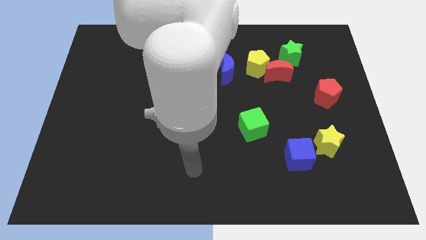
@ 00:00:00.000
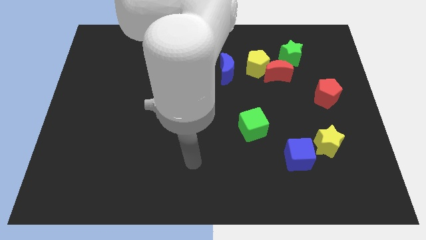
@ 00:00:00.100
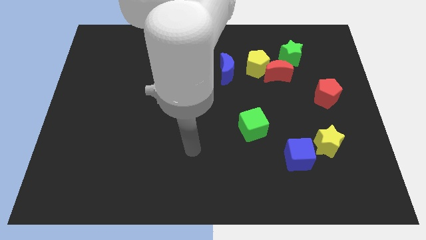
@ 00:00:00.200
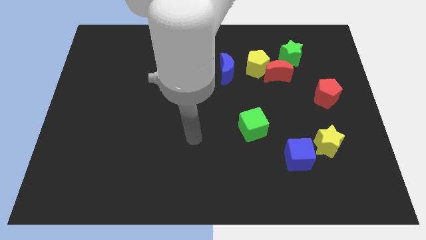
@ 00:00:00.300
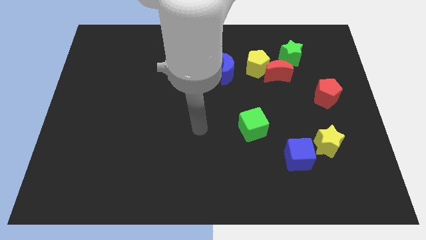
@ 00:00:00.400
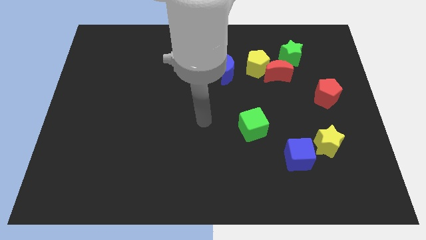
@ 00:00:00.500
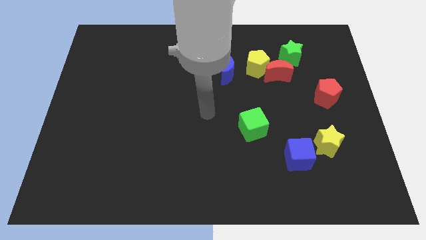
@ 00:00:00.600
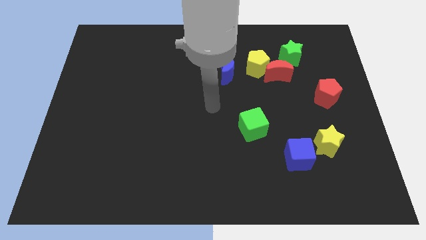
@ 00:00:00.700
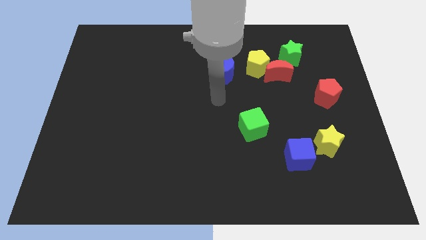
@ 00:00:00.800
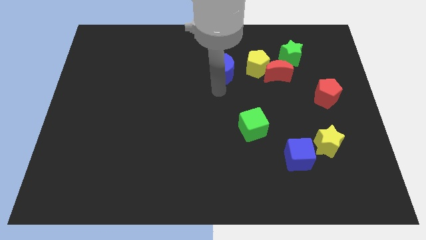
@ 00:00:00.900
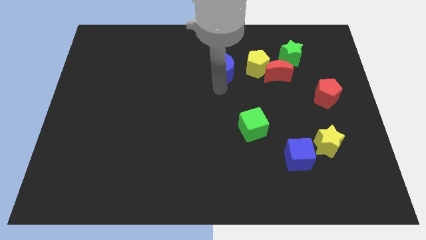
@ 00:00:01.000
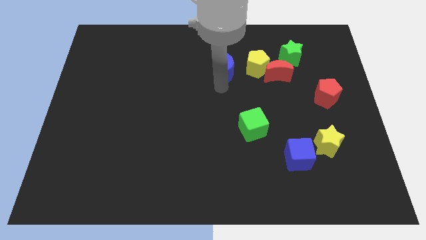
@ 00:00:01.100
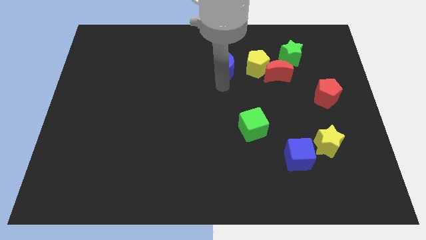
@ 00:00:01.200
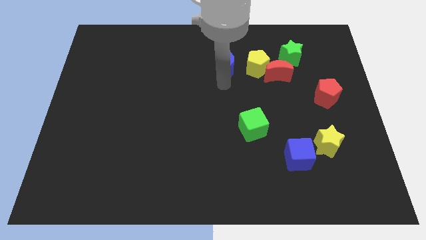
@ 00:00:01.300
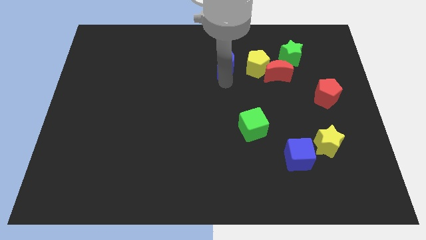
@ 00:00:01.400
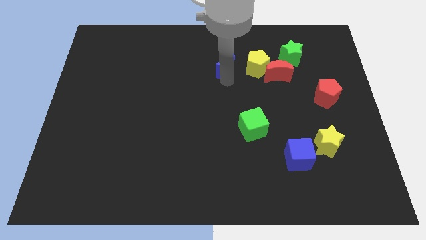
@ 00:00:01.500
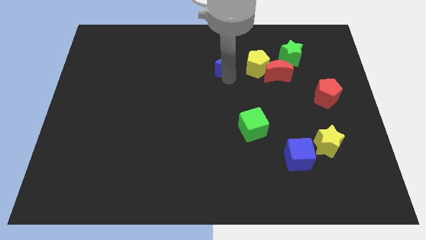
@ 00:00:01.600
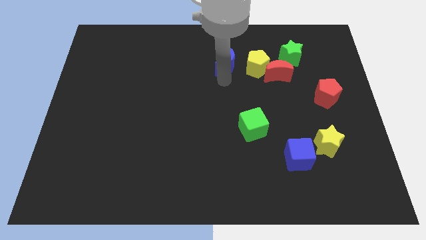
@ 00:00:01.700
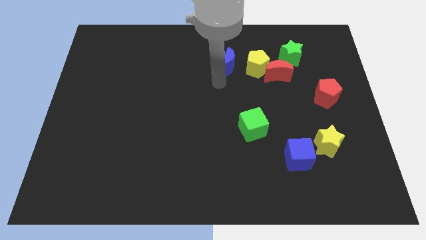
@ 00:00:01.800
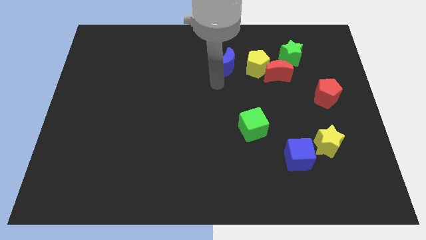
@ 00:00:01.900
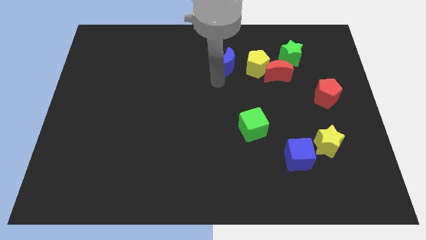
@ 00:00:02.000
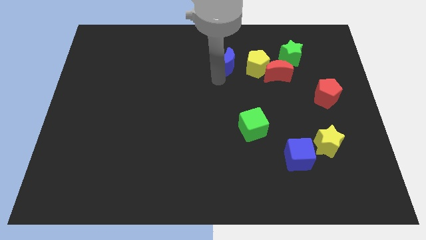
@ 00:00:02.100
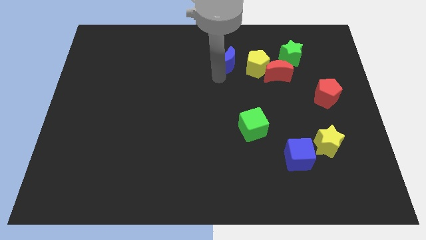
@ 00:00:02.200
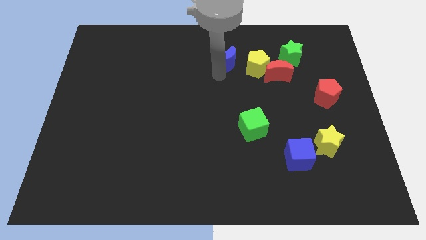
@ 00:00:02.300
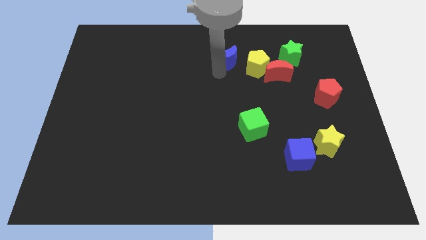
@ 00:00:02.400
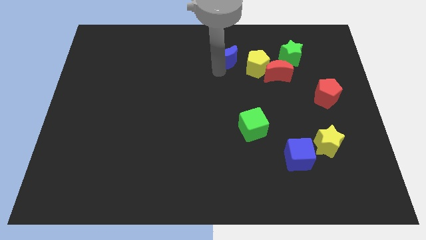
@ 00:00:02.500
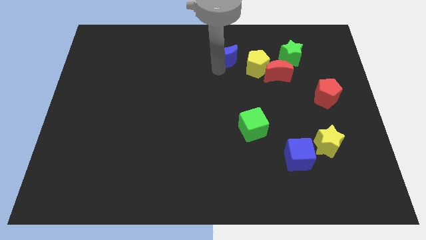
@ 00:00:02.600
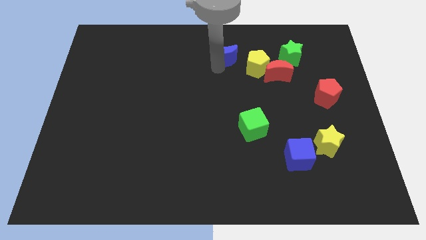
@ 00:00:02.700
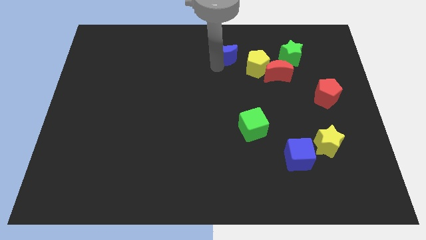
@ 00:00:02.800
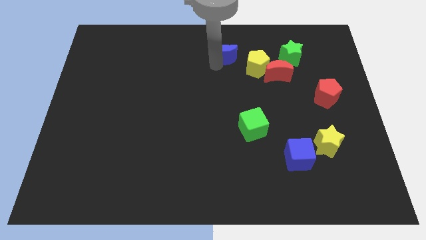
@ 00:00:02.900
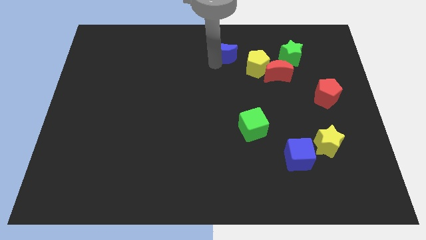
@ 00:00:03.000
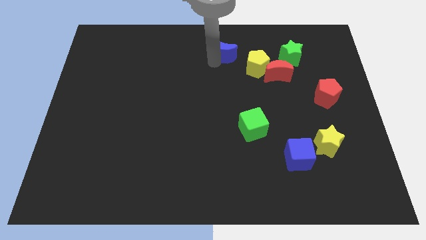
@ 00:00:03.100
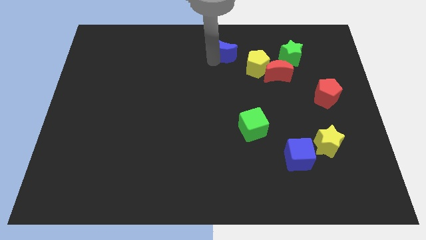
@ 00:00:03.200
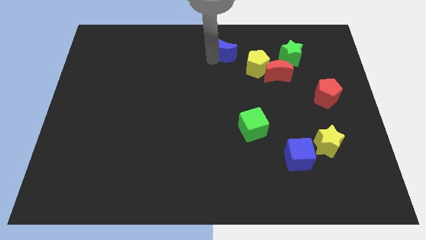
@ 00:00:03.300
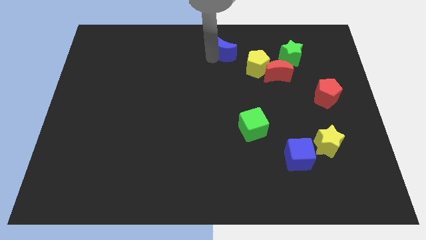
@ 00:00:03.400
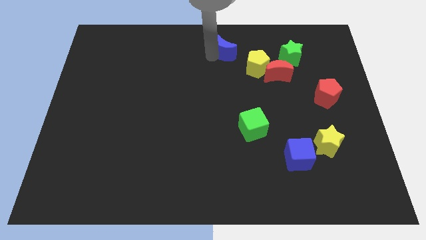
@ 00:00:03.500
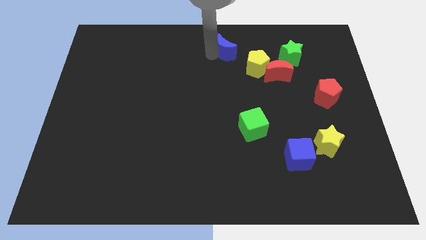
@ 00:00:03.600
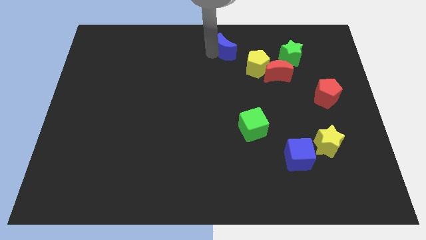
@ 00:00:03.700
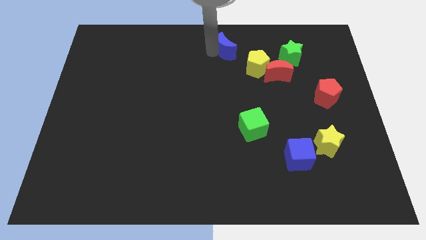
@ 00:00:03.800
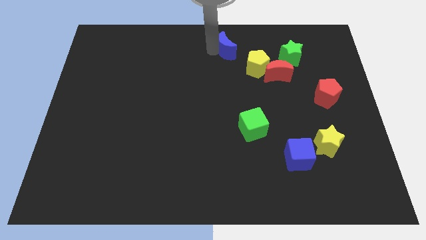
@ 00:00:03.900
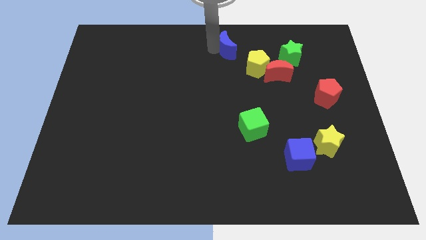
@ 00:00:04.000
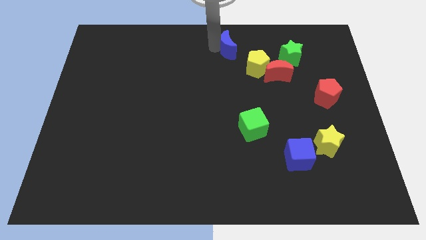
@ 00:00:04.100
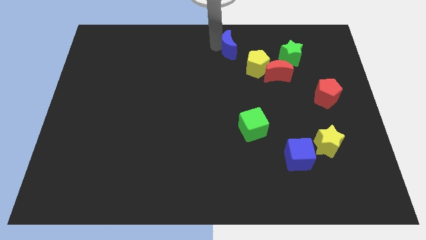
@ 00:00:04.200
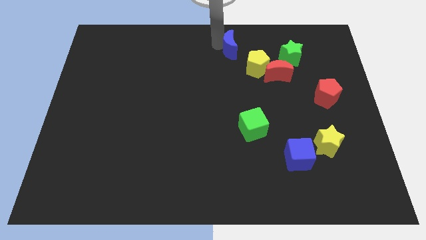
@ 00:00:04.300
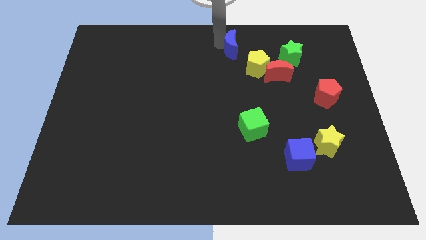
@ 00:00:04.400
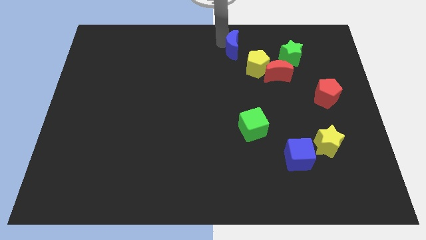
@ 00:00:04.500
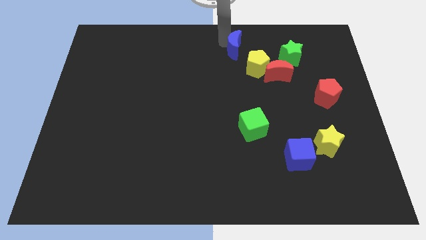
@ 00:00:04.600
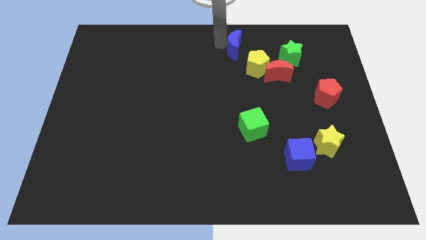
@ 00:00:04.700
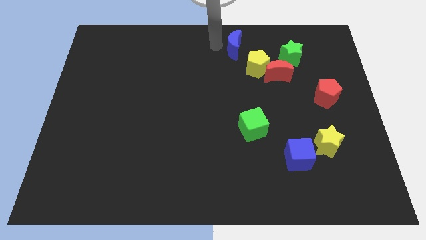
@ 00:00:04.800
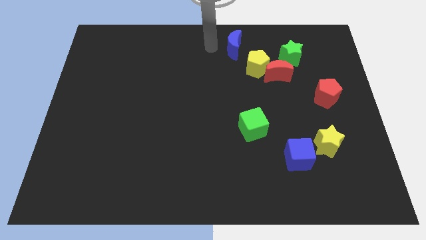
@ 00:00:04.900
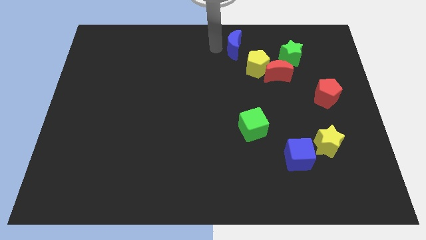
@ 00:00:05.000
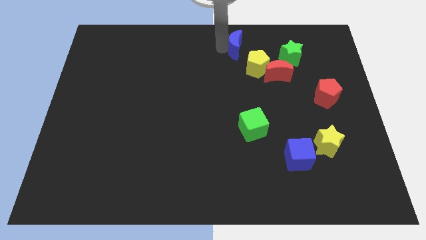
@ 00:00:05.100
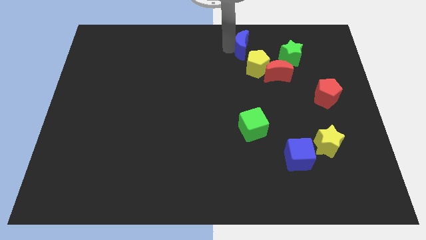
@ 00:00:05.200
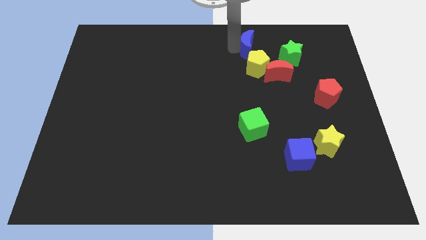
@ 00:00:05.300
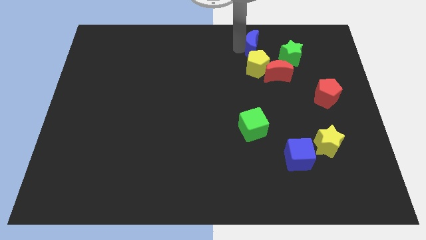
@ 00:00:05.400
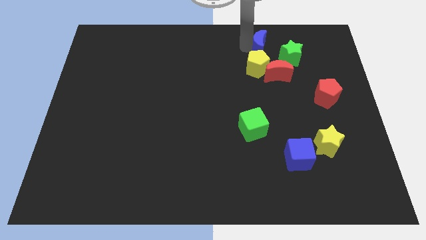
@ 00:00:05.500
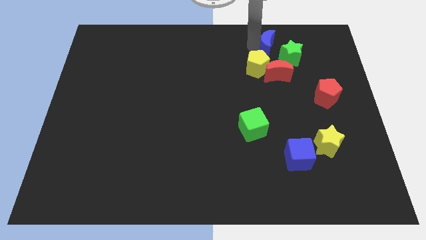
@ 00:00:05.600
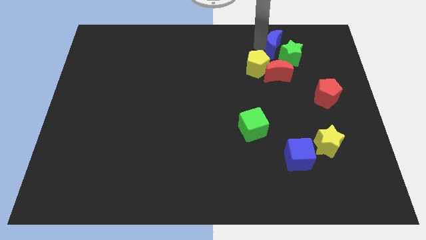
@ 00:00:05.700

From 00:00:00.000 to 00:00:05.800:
put the blue moon towards the green star

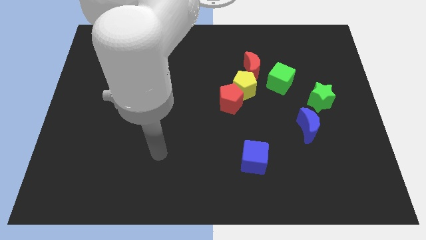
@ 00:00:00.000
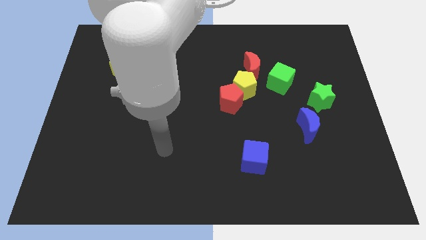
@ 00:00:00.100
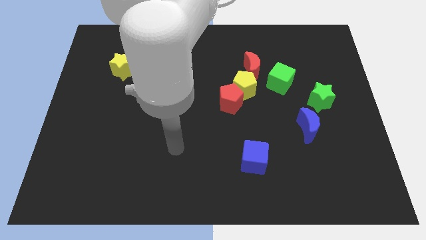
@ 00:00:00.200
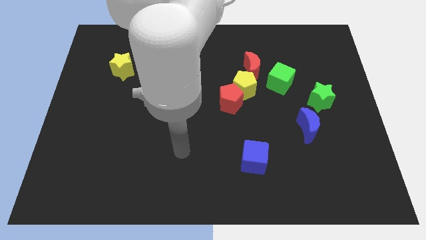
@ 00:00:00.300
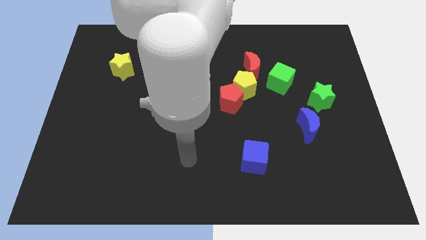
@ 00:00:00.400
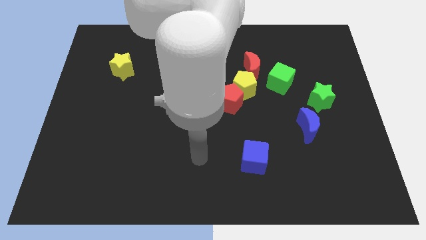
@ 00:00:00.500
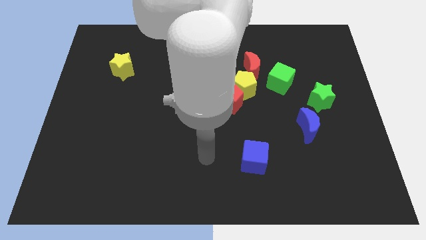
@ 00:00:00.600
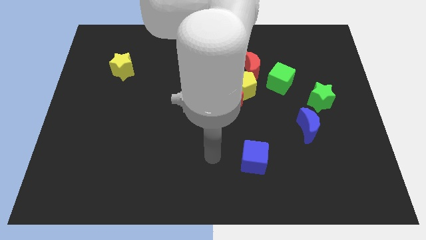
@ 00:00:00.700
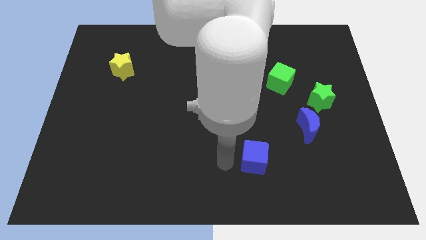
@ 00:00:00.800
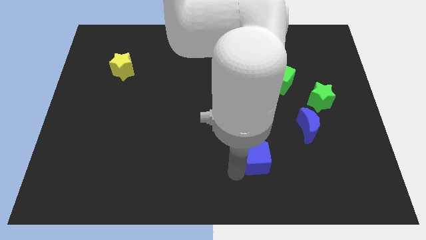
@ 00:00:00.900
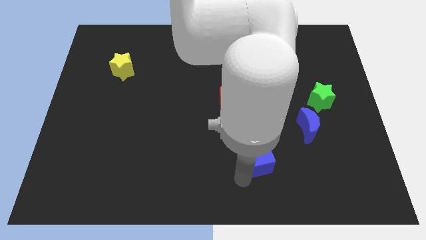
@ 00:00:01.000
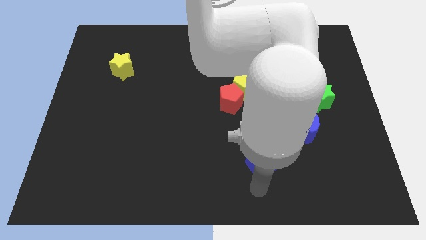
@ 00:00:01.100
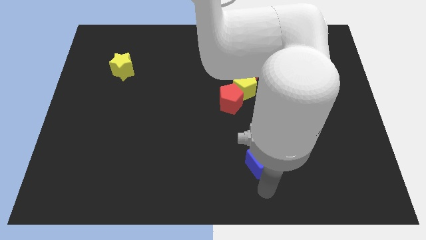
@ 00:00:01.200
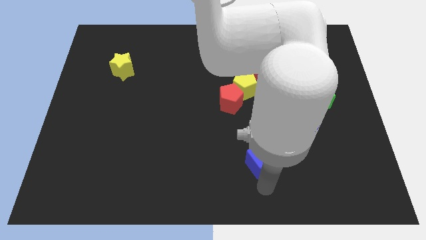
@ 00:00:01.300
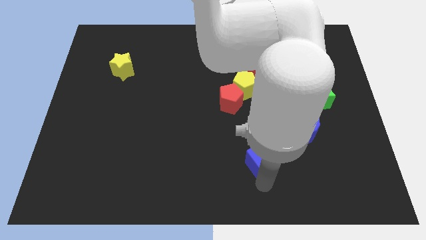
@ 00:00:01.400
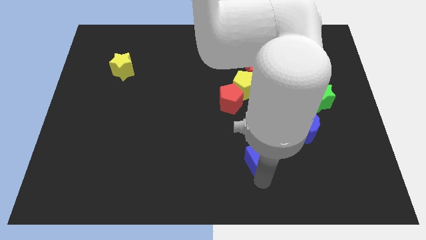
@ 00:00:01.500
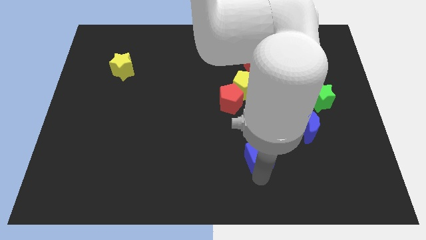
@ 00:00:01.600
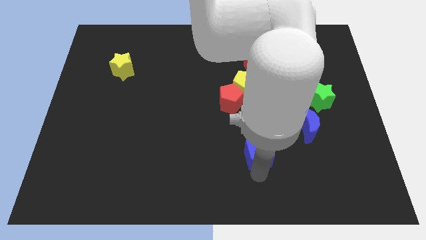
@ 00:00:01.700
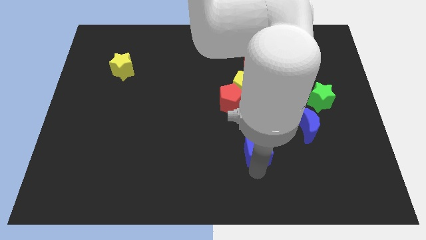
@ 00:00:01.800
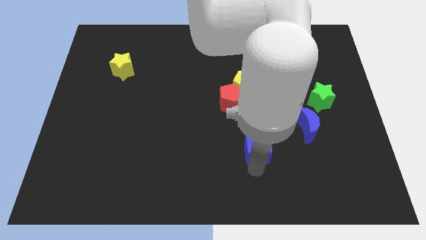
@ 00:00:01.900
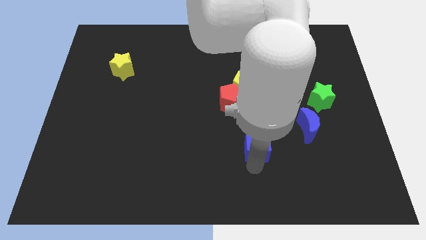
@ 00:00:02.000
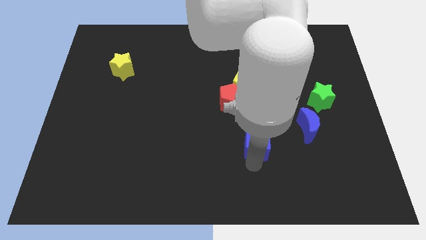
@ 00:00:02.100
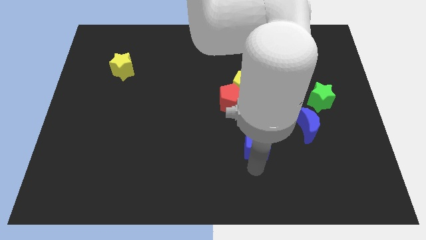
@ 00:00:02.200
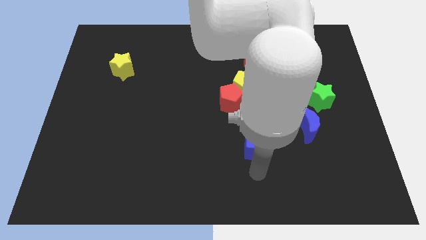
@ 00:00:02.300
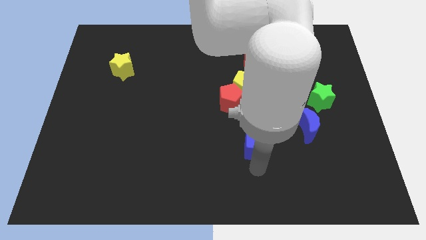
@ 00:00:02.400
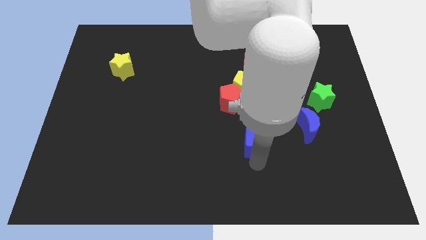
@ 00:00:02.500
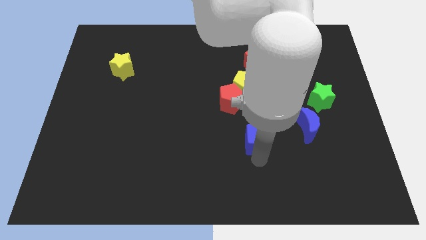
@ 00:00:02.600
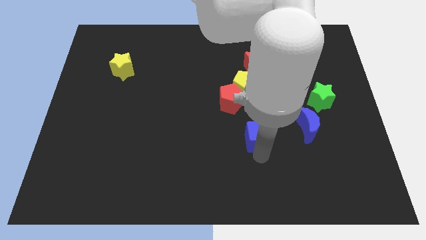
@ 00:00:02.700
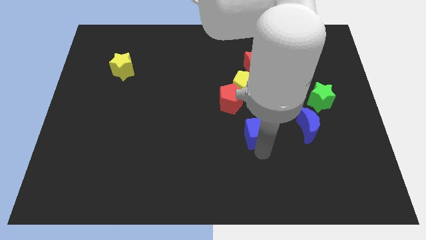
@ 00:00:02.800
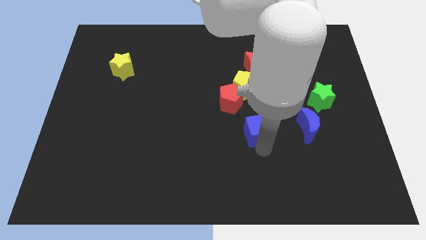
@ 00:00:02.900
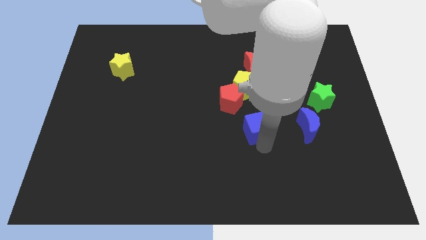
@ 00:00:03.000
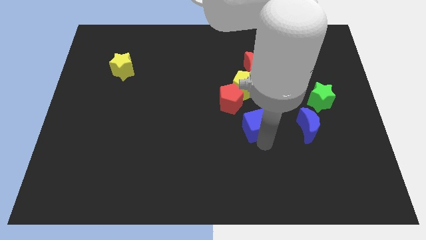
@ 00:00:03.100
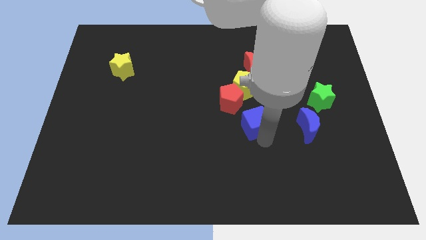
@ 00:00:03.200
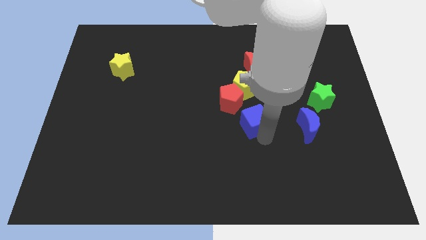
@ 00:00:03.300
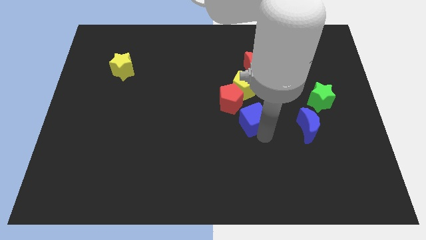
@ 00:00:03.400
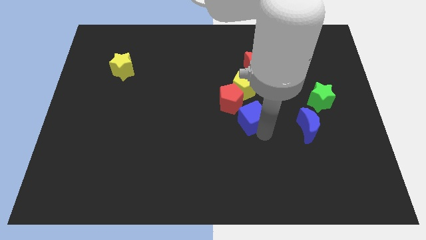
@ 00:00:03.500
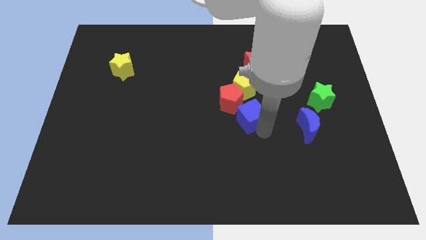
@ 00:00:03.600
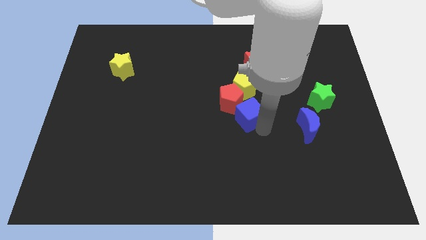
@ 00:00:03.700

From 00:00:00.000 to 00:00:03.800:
put the blue cube close to the red pentagon
